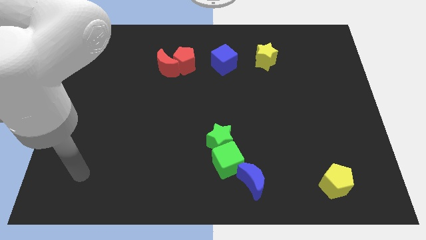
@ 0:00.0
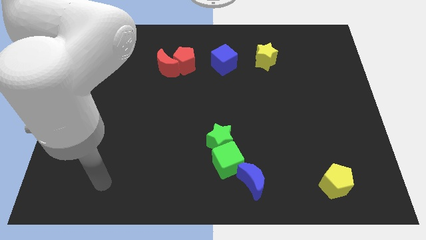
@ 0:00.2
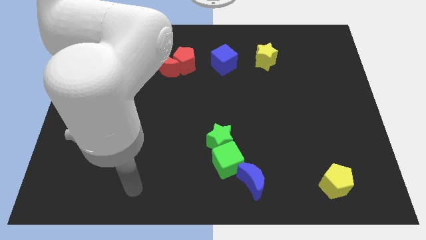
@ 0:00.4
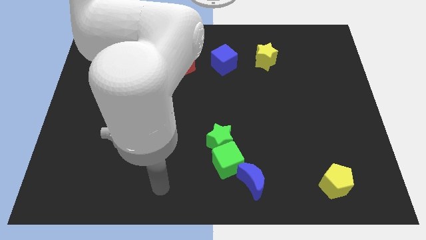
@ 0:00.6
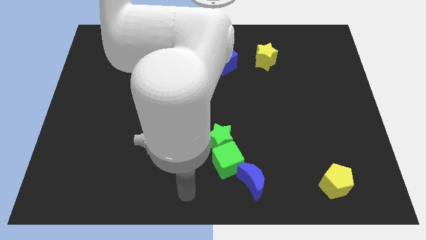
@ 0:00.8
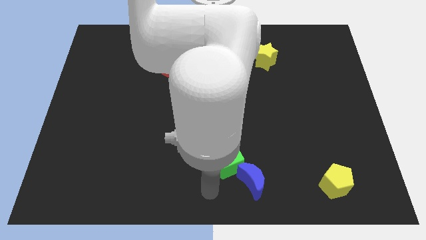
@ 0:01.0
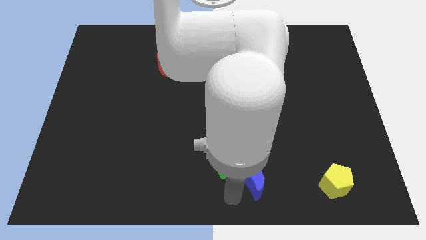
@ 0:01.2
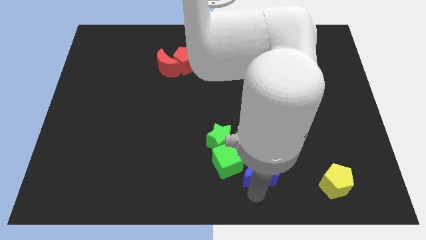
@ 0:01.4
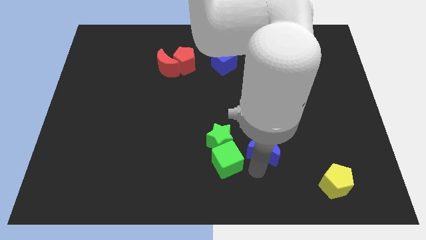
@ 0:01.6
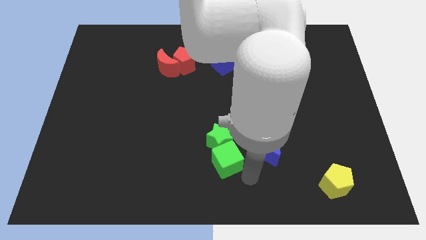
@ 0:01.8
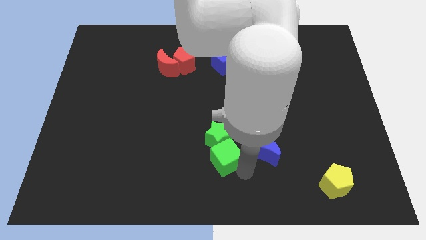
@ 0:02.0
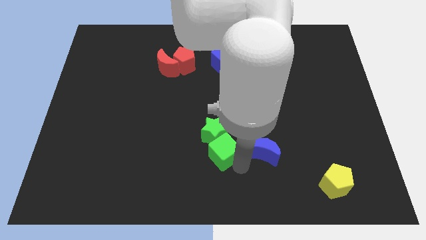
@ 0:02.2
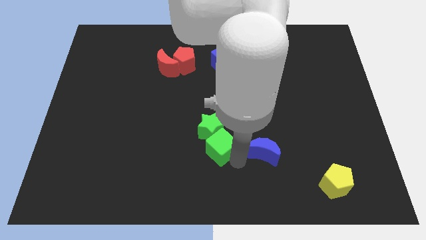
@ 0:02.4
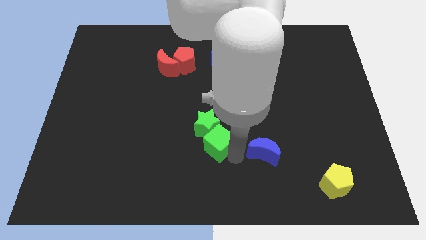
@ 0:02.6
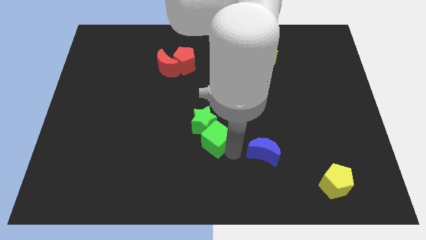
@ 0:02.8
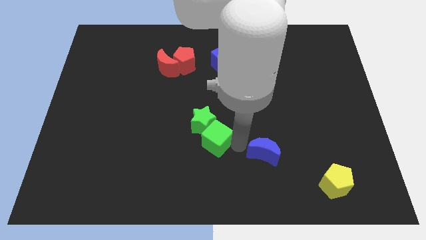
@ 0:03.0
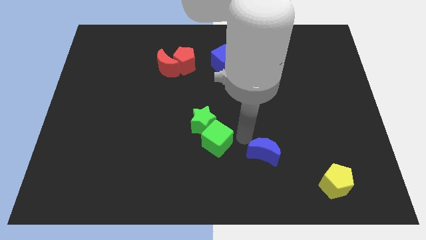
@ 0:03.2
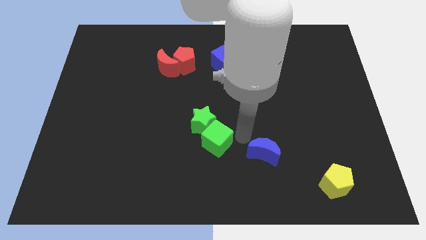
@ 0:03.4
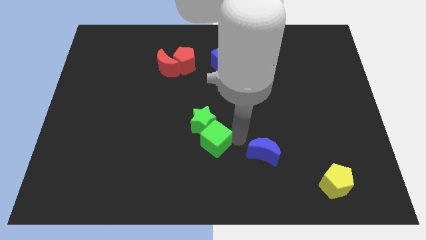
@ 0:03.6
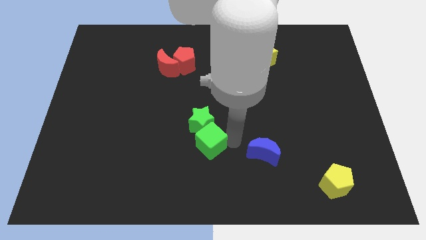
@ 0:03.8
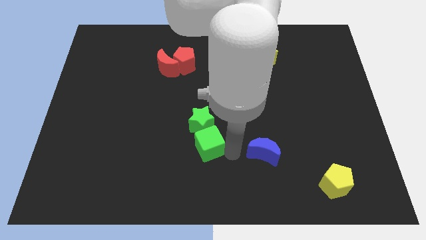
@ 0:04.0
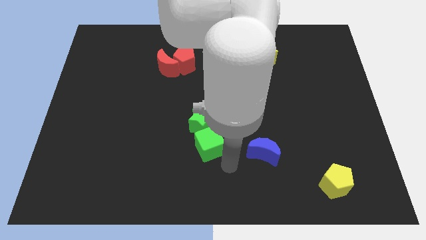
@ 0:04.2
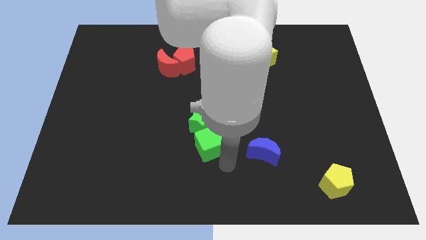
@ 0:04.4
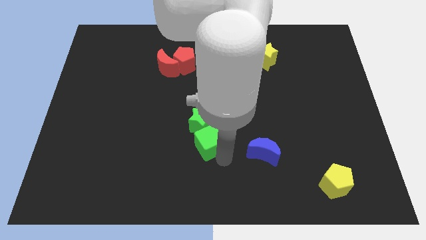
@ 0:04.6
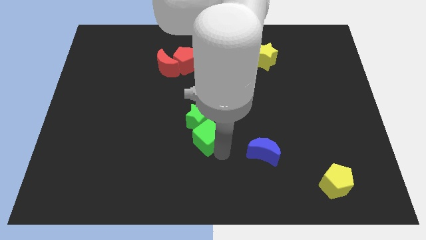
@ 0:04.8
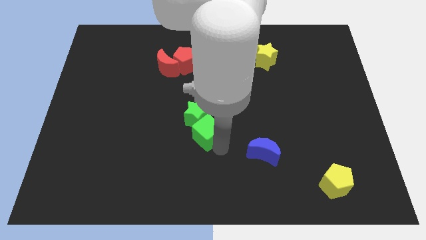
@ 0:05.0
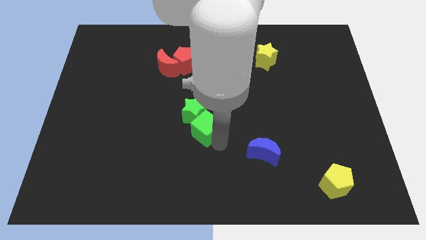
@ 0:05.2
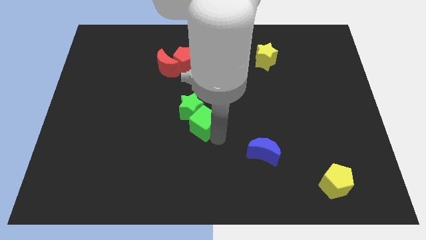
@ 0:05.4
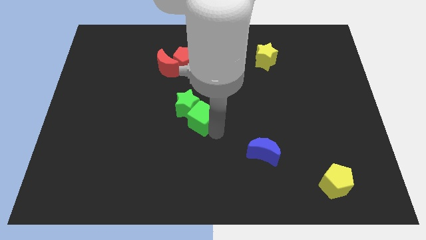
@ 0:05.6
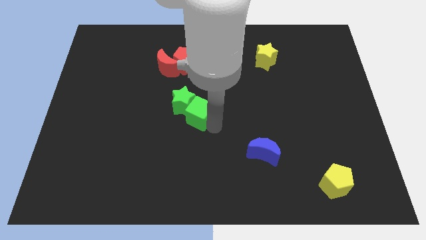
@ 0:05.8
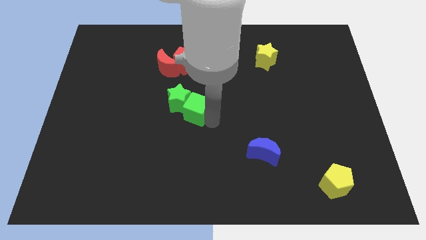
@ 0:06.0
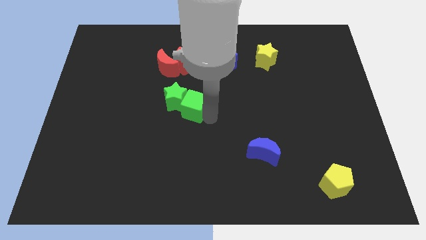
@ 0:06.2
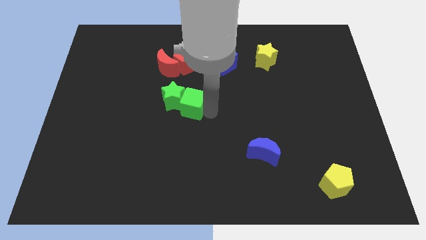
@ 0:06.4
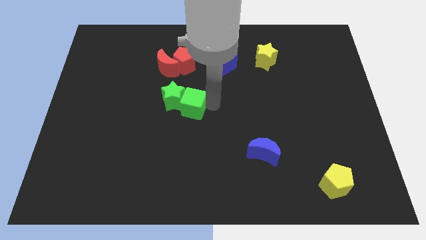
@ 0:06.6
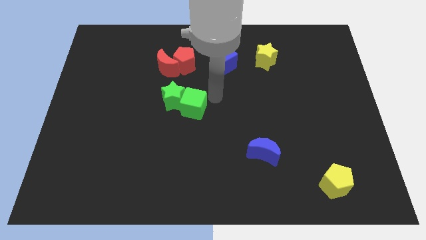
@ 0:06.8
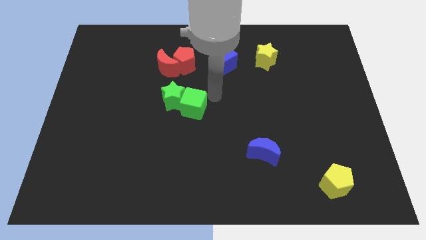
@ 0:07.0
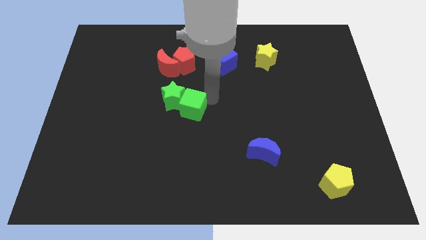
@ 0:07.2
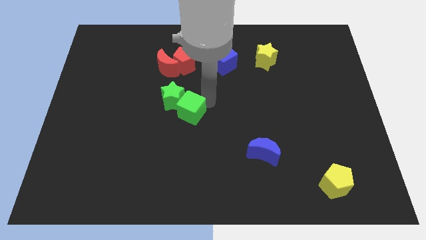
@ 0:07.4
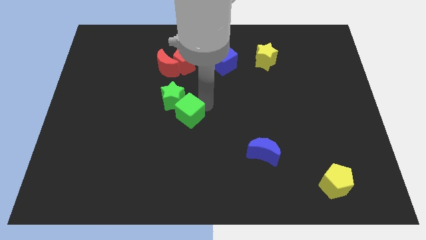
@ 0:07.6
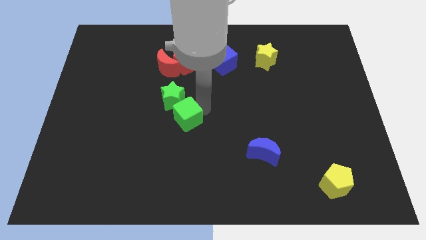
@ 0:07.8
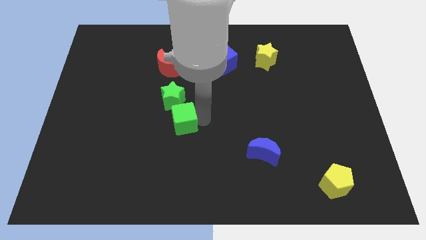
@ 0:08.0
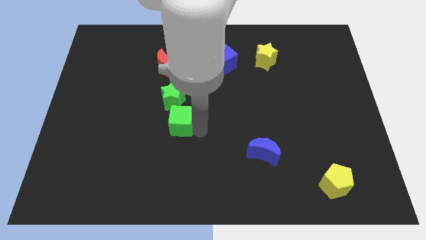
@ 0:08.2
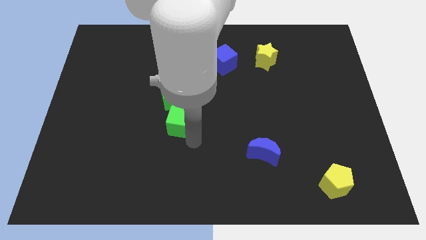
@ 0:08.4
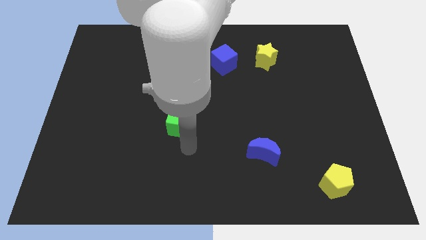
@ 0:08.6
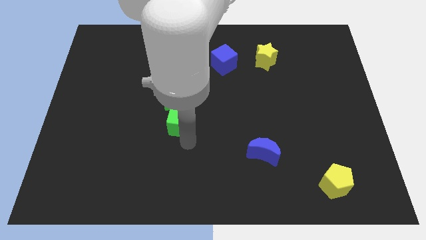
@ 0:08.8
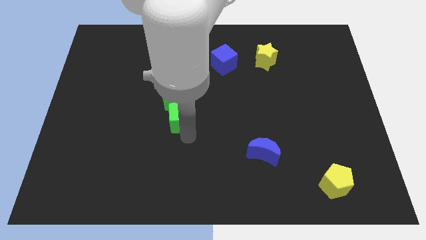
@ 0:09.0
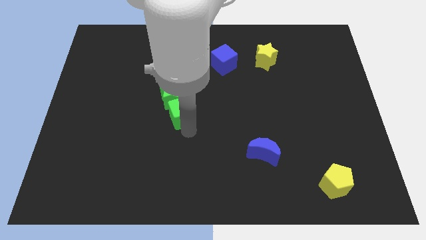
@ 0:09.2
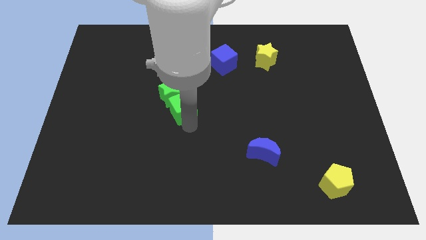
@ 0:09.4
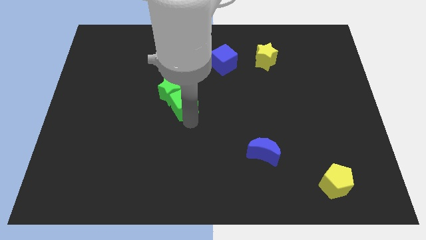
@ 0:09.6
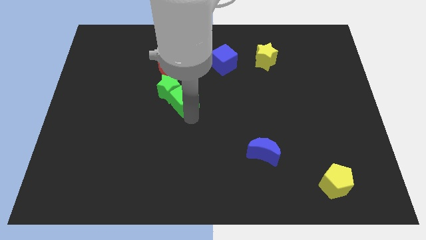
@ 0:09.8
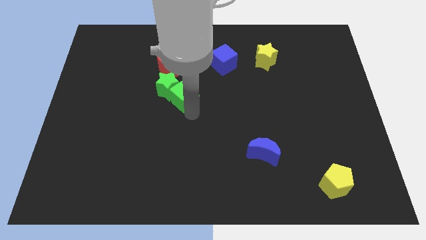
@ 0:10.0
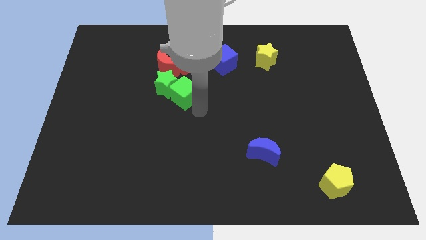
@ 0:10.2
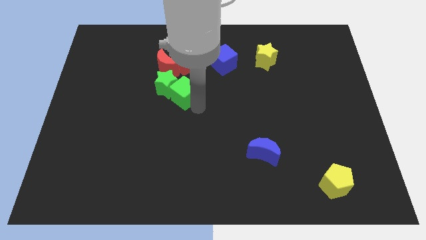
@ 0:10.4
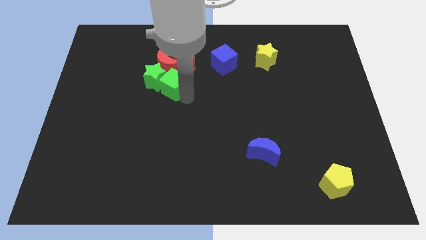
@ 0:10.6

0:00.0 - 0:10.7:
put the green cube to the bottom left of the red pentagon

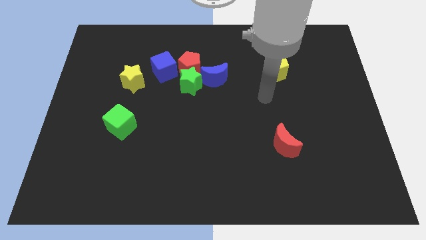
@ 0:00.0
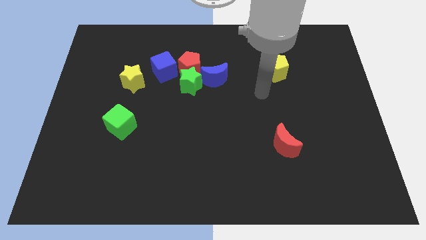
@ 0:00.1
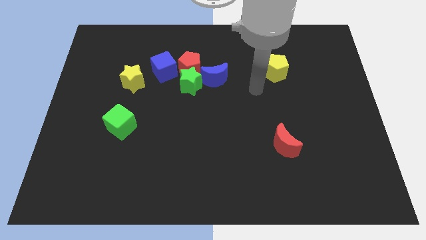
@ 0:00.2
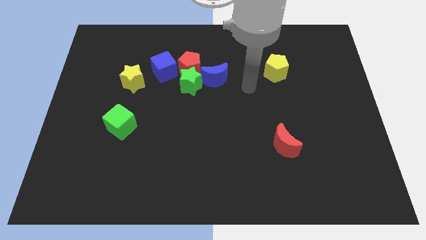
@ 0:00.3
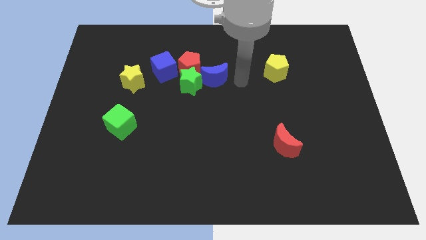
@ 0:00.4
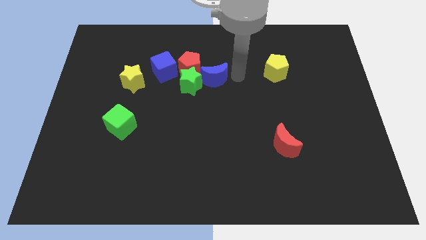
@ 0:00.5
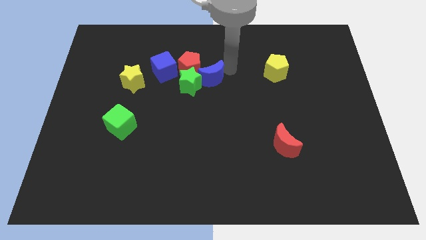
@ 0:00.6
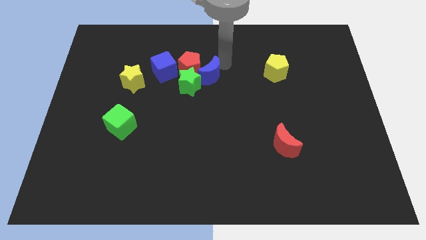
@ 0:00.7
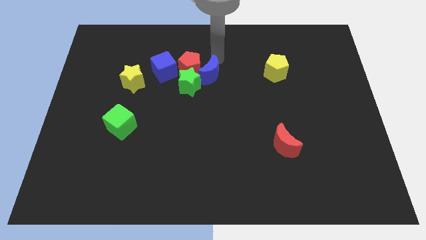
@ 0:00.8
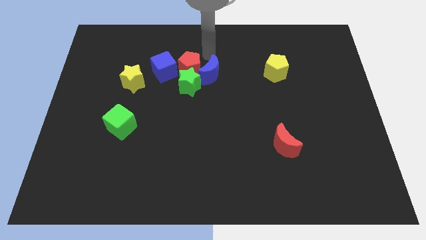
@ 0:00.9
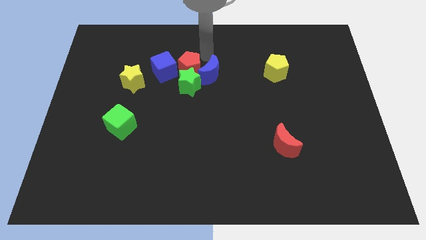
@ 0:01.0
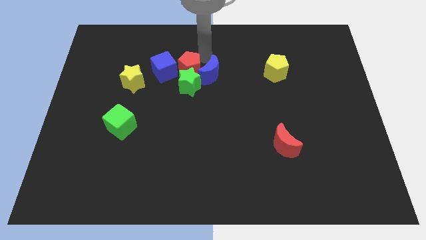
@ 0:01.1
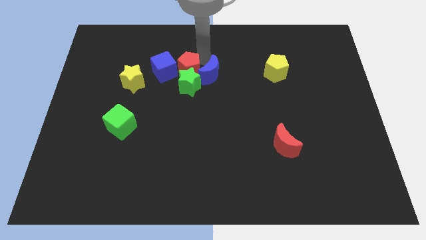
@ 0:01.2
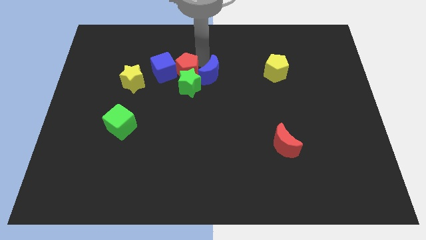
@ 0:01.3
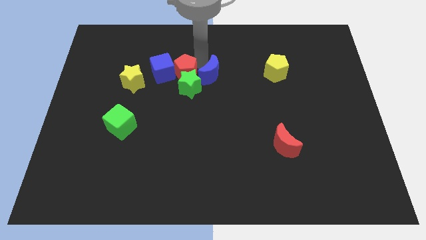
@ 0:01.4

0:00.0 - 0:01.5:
slide the red pentagon diagonally down and to the left of the blue moon
